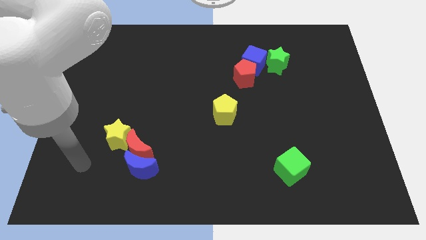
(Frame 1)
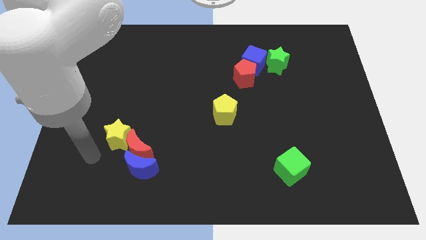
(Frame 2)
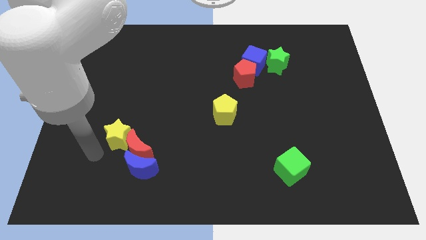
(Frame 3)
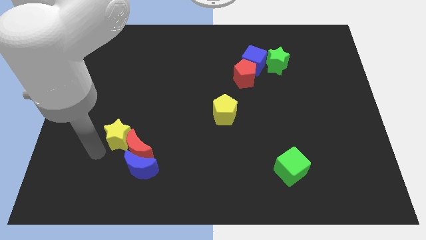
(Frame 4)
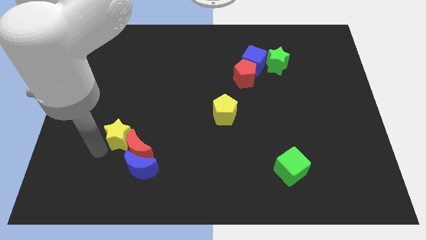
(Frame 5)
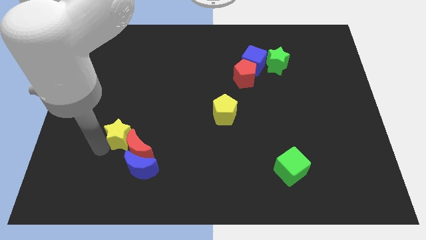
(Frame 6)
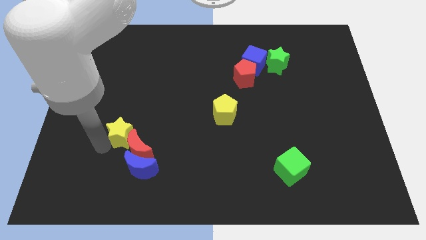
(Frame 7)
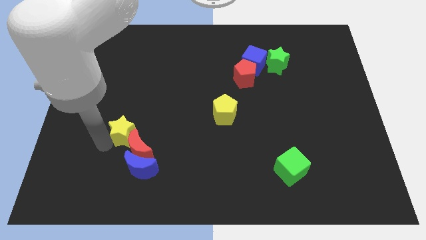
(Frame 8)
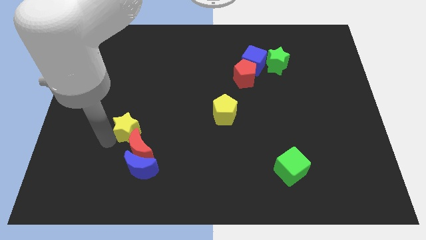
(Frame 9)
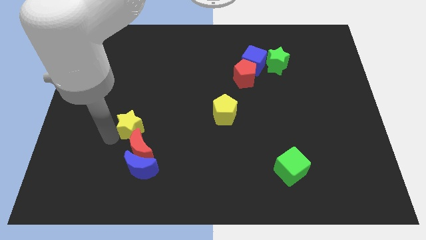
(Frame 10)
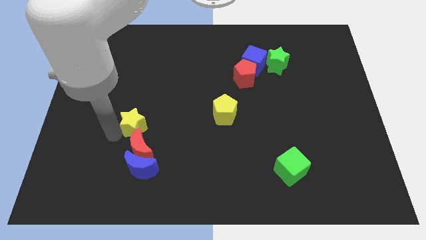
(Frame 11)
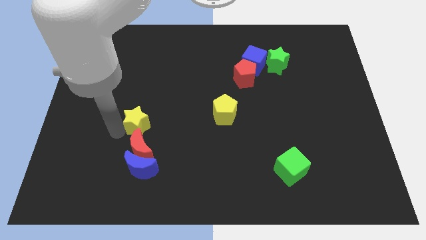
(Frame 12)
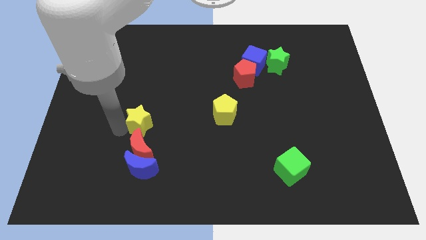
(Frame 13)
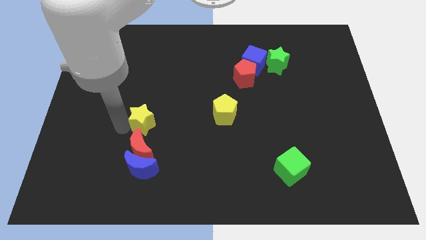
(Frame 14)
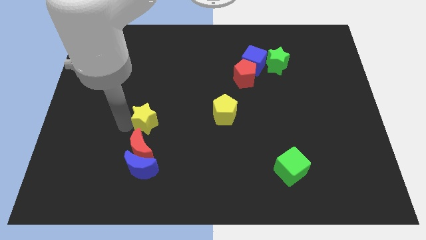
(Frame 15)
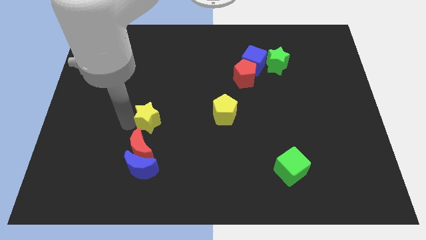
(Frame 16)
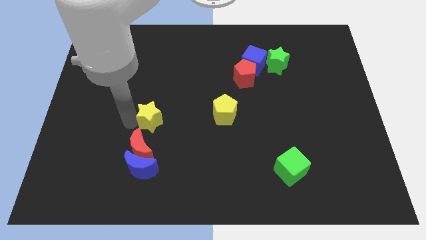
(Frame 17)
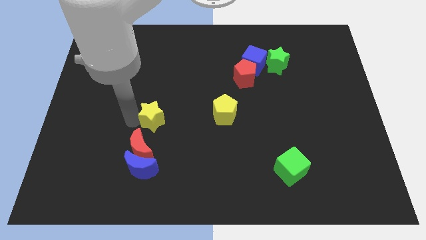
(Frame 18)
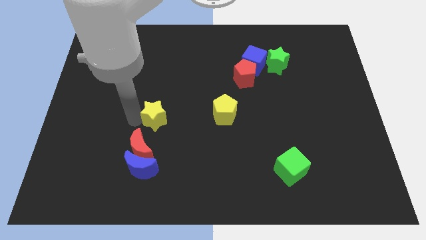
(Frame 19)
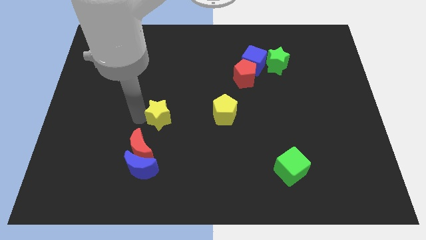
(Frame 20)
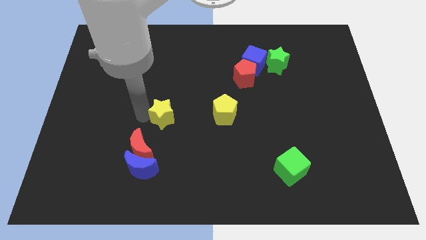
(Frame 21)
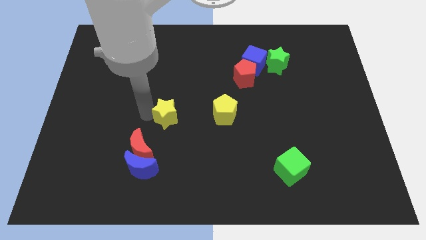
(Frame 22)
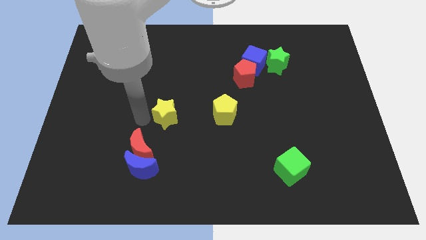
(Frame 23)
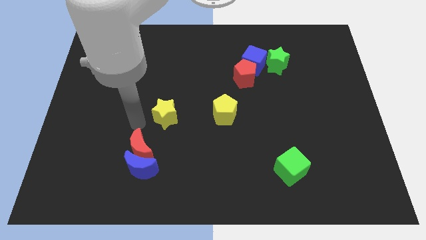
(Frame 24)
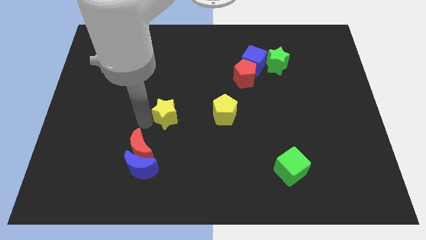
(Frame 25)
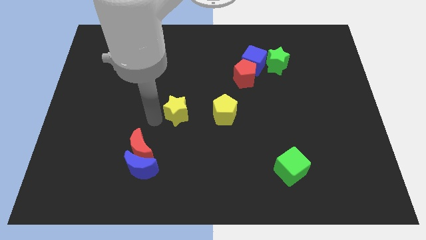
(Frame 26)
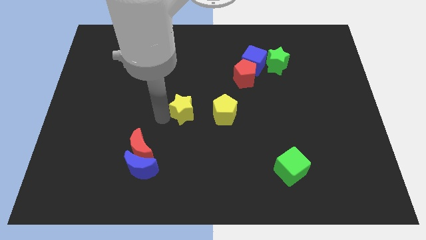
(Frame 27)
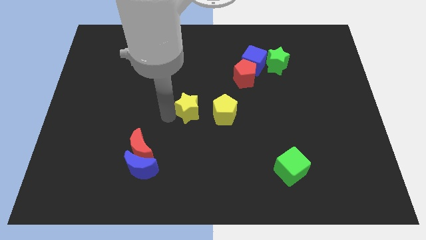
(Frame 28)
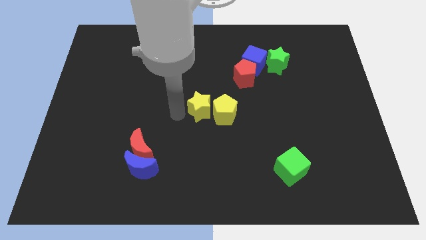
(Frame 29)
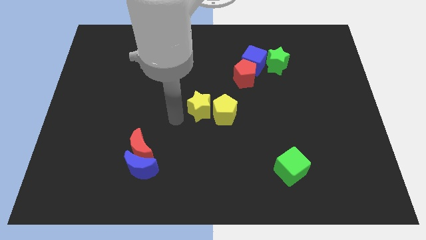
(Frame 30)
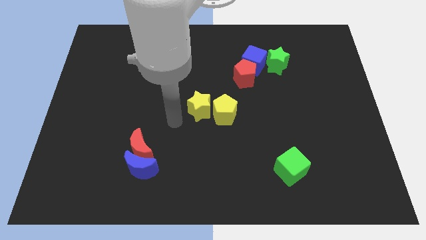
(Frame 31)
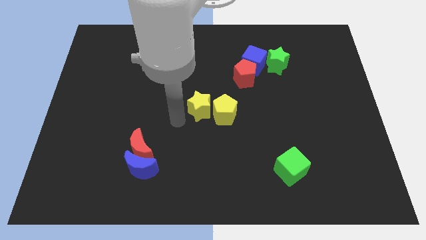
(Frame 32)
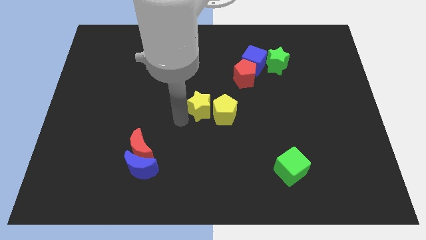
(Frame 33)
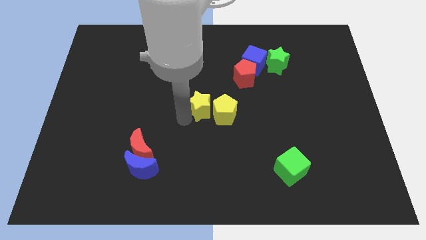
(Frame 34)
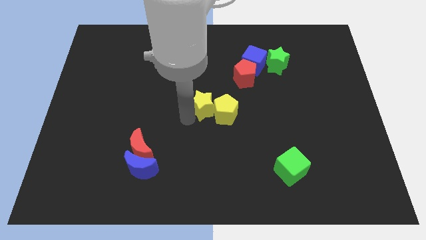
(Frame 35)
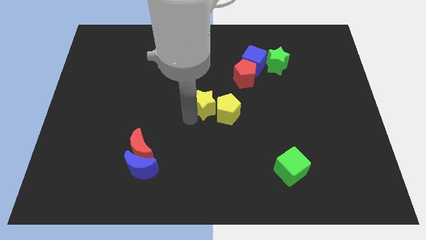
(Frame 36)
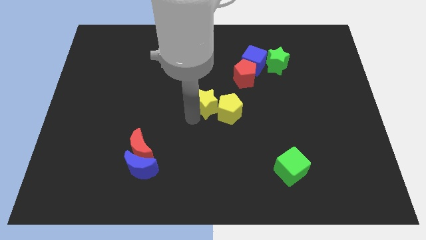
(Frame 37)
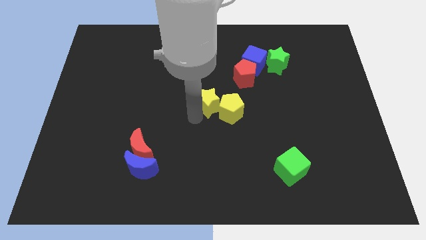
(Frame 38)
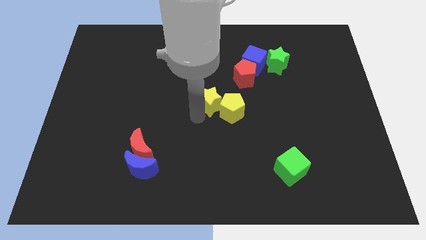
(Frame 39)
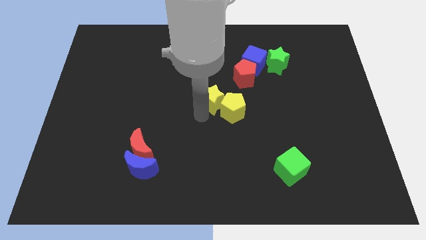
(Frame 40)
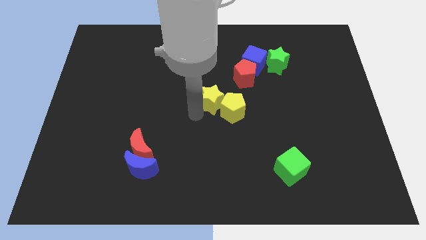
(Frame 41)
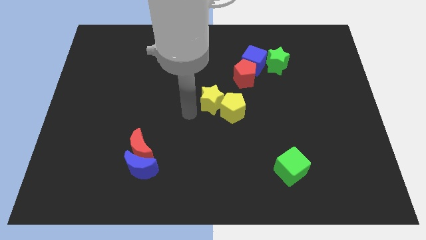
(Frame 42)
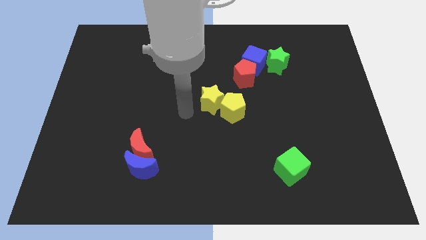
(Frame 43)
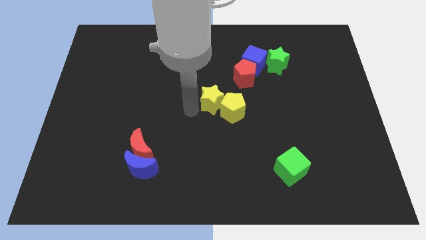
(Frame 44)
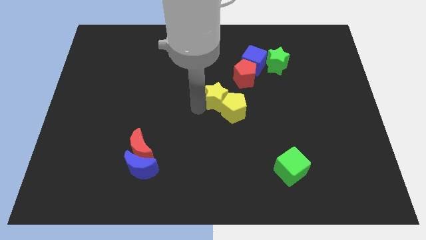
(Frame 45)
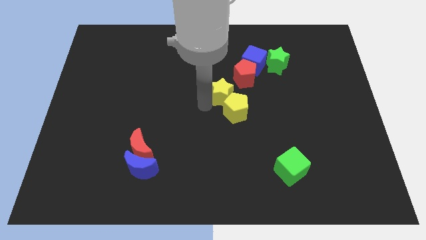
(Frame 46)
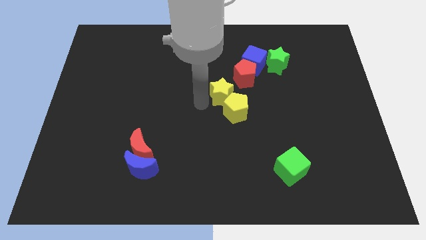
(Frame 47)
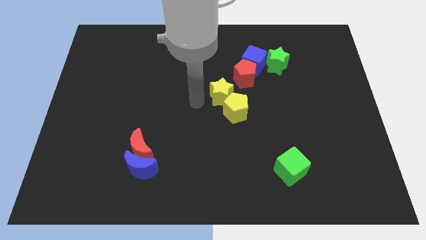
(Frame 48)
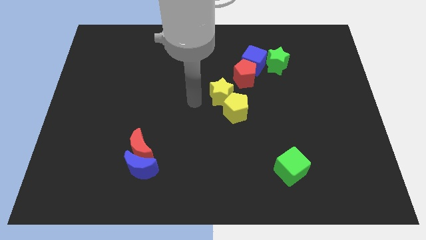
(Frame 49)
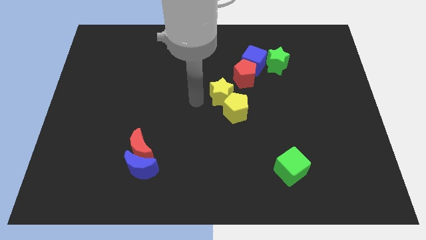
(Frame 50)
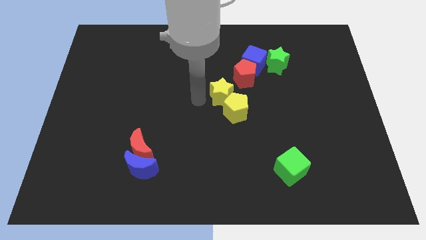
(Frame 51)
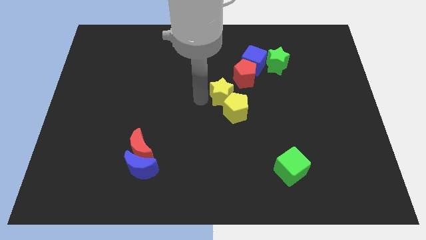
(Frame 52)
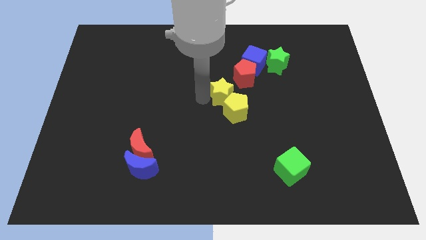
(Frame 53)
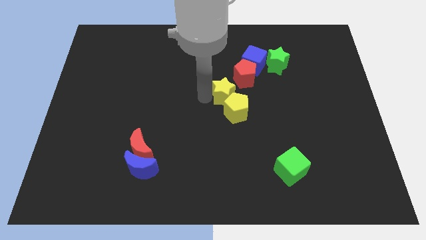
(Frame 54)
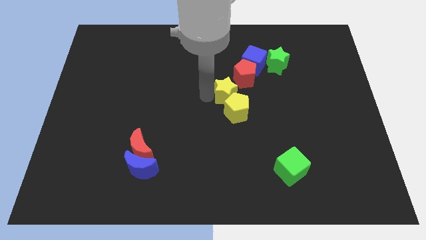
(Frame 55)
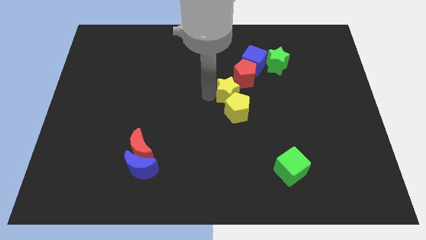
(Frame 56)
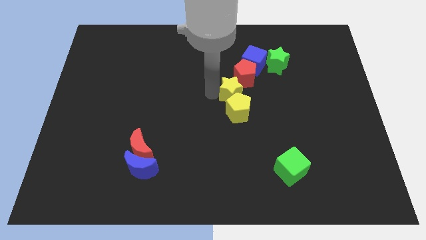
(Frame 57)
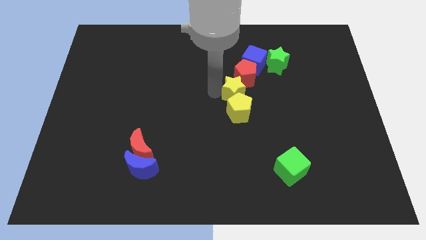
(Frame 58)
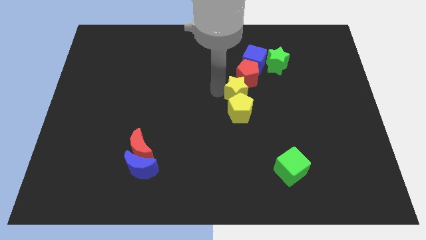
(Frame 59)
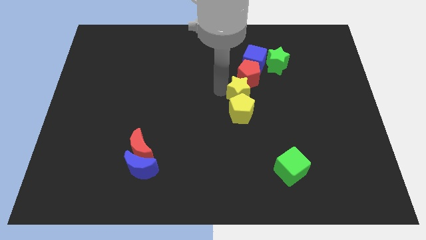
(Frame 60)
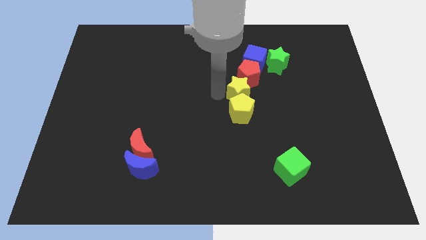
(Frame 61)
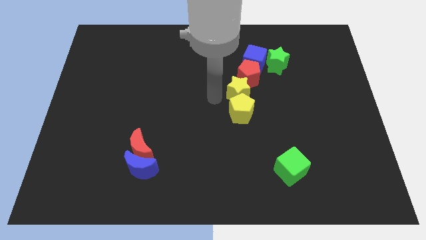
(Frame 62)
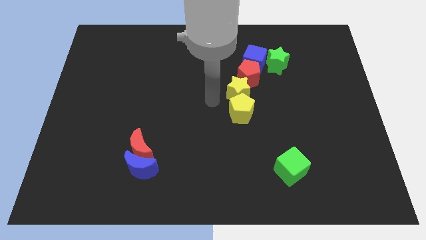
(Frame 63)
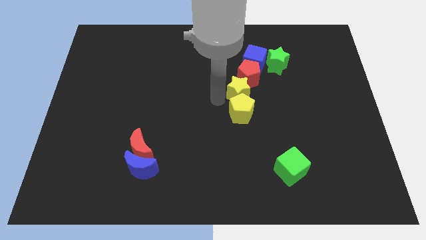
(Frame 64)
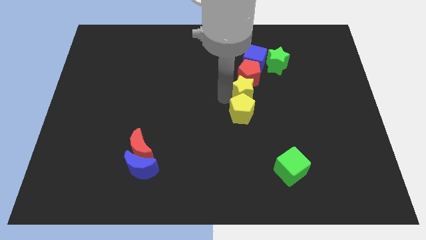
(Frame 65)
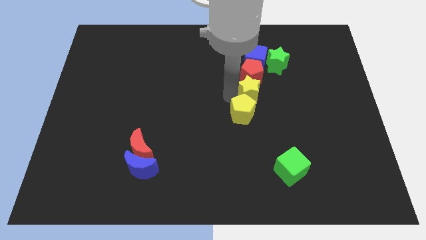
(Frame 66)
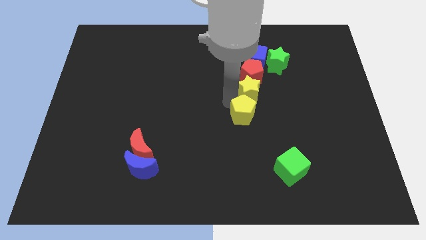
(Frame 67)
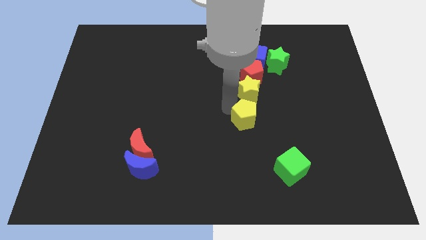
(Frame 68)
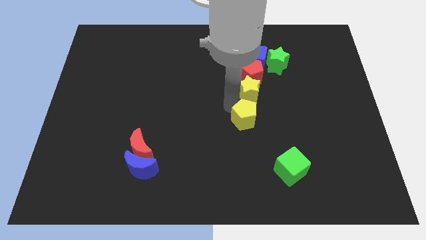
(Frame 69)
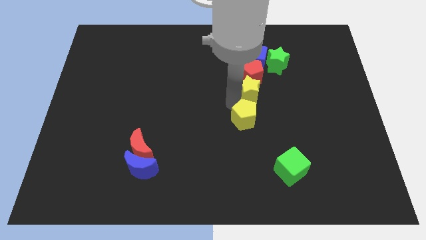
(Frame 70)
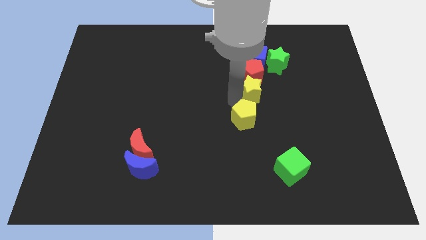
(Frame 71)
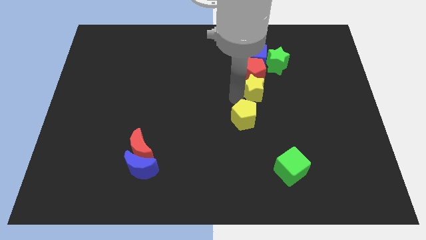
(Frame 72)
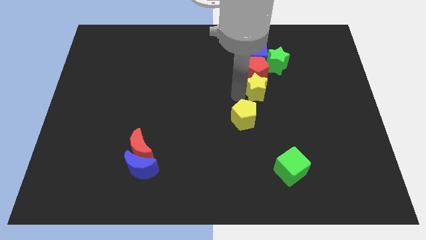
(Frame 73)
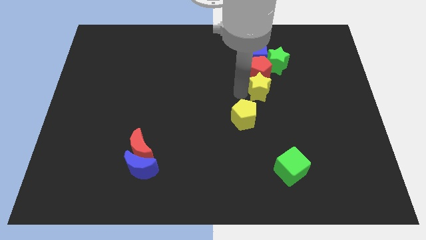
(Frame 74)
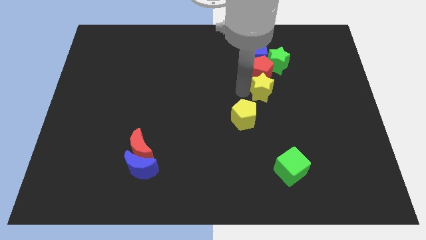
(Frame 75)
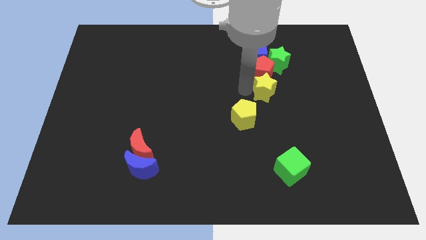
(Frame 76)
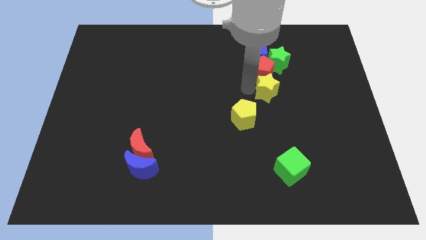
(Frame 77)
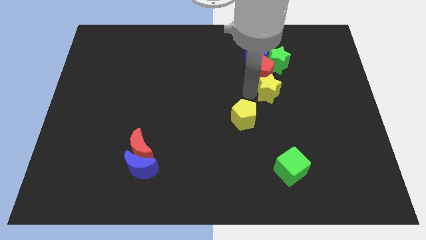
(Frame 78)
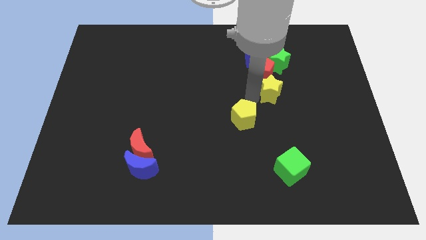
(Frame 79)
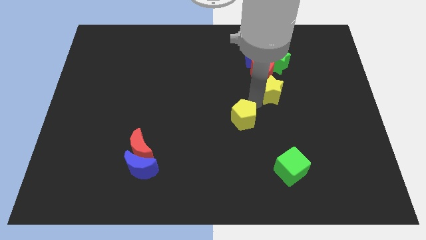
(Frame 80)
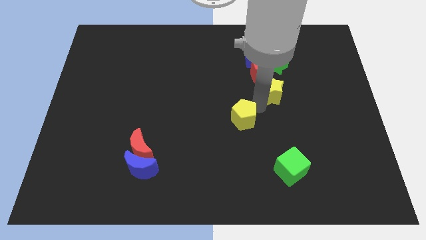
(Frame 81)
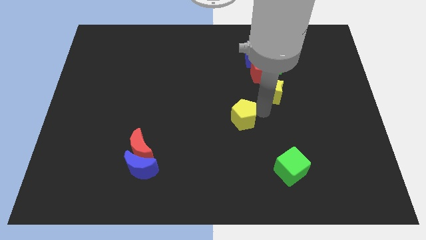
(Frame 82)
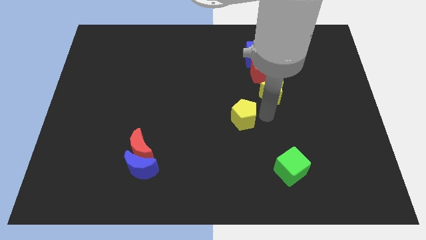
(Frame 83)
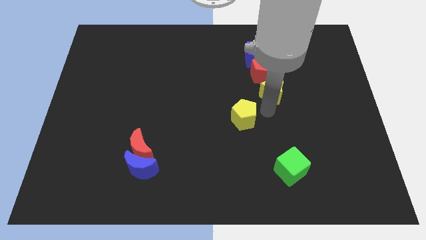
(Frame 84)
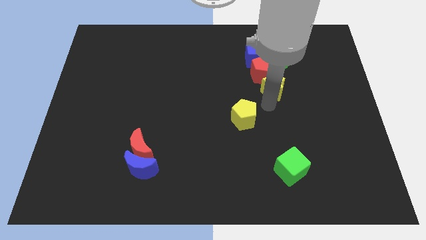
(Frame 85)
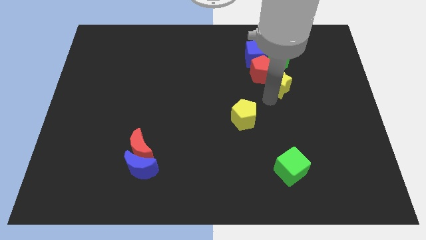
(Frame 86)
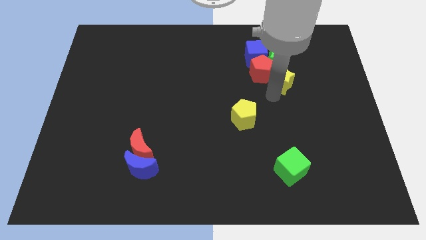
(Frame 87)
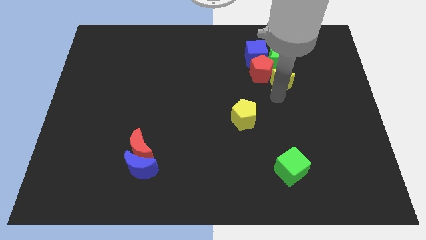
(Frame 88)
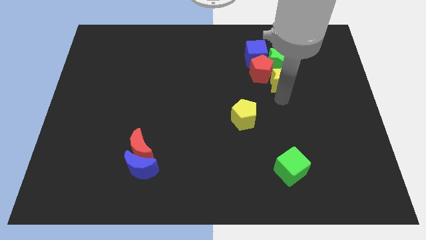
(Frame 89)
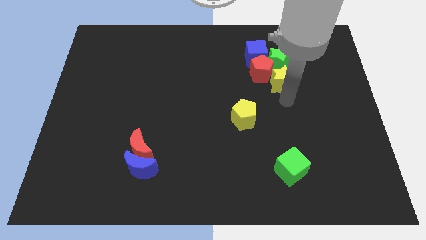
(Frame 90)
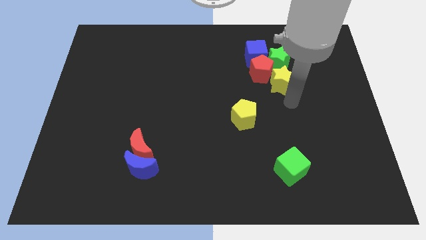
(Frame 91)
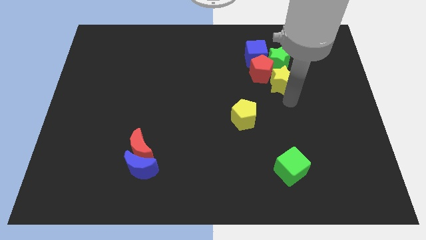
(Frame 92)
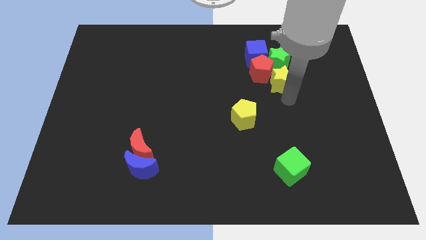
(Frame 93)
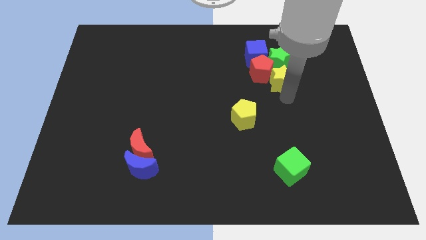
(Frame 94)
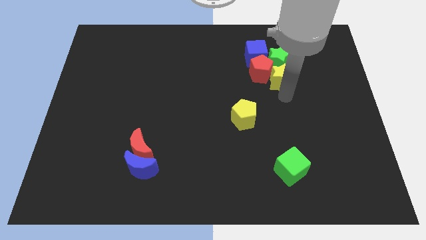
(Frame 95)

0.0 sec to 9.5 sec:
slide the yellow star to the green star
